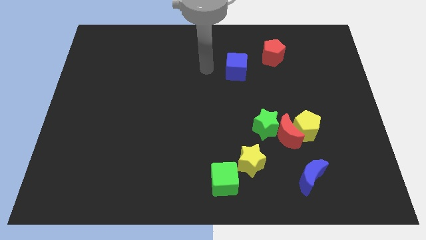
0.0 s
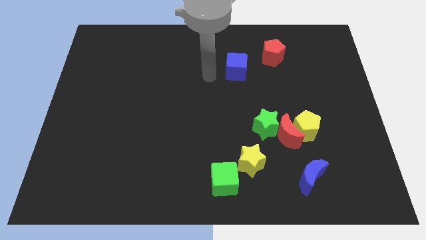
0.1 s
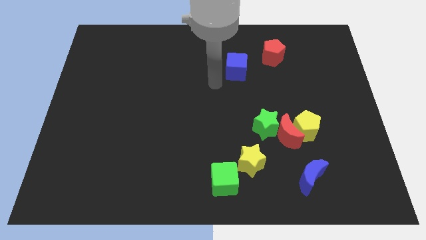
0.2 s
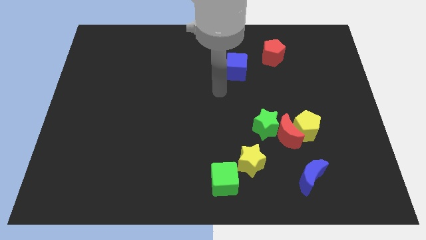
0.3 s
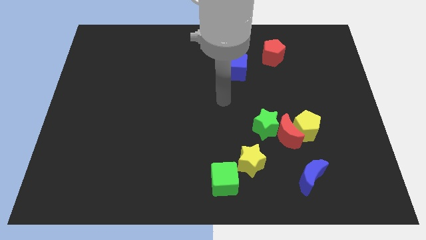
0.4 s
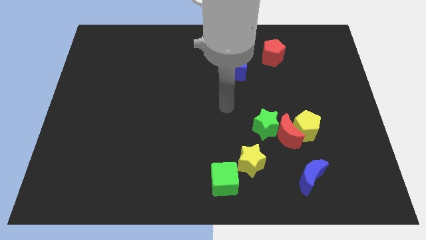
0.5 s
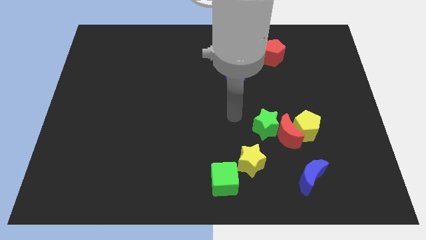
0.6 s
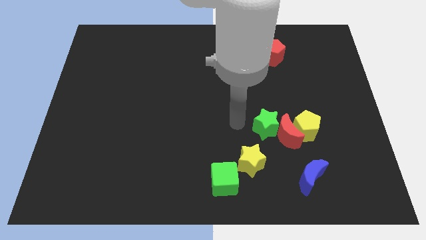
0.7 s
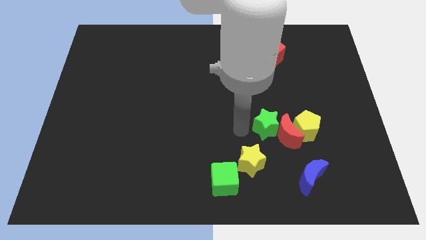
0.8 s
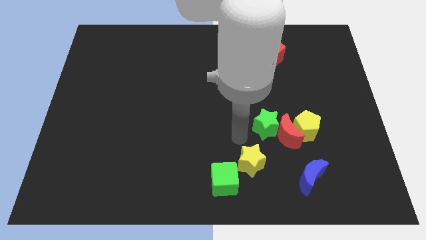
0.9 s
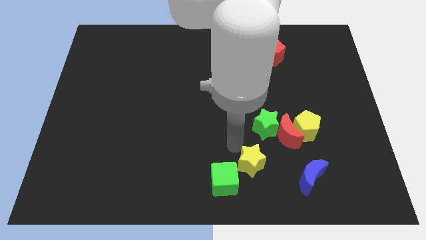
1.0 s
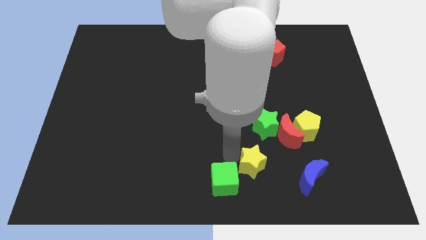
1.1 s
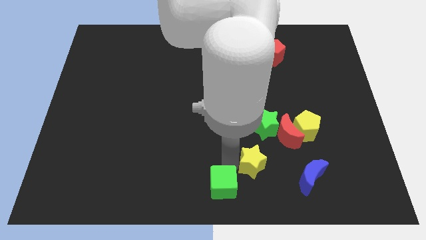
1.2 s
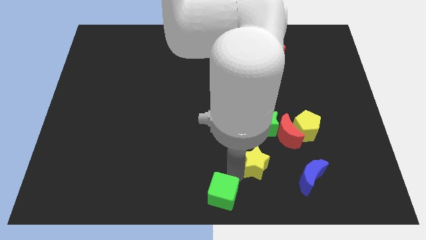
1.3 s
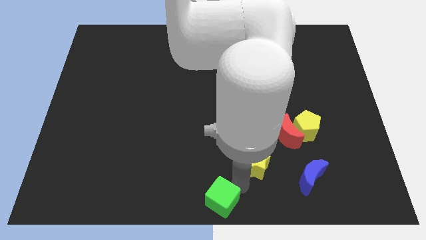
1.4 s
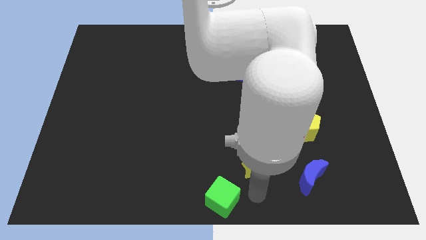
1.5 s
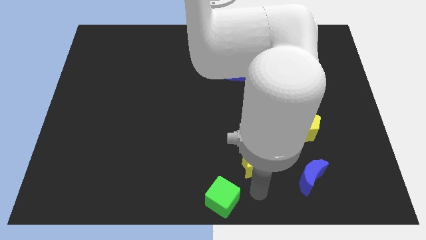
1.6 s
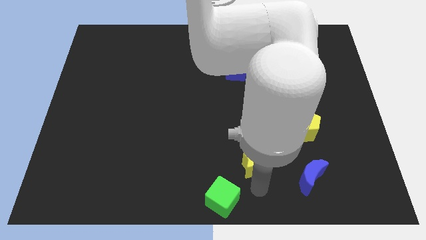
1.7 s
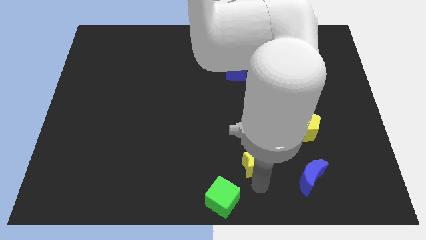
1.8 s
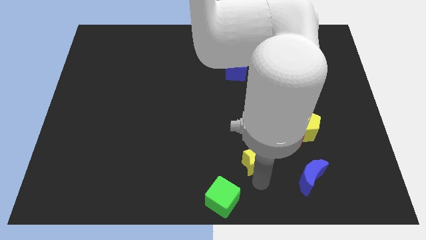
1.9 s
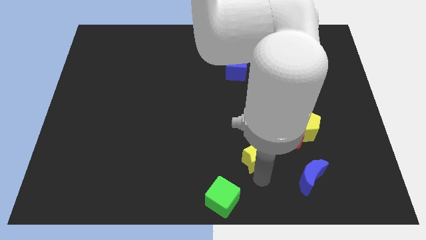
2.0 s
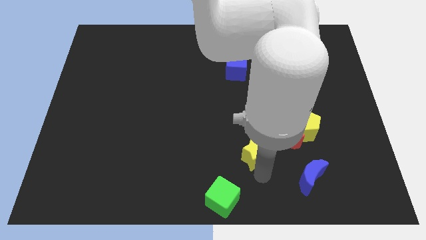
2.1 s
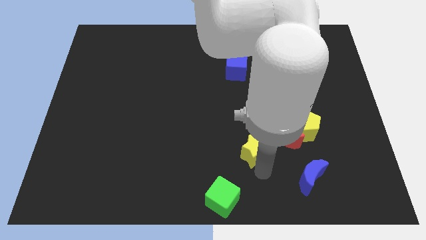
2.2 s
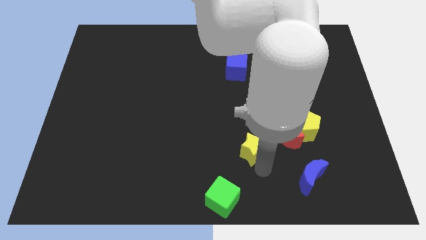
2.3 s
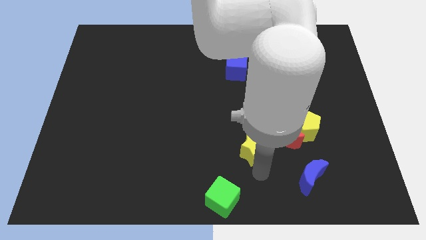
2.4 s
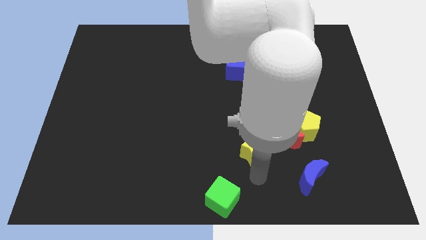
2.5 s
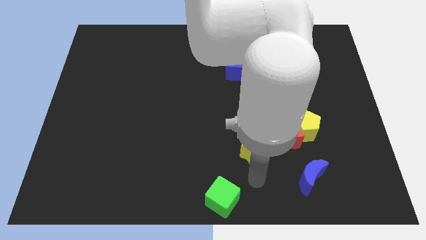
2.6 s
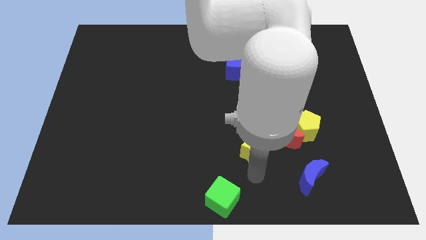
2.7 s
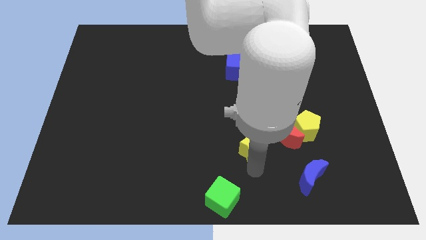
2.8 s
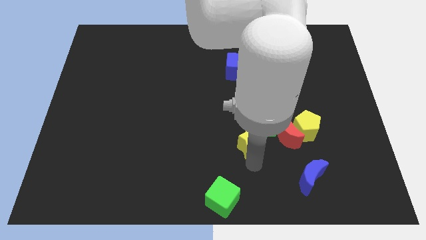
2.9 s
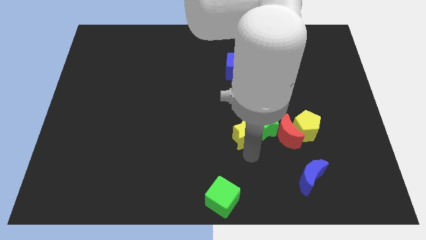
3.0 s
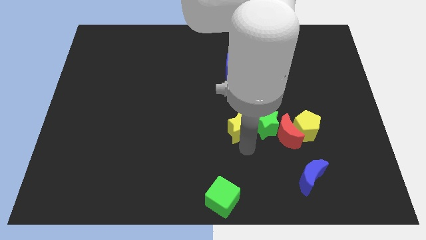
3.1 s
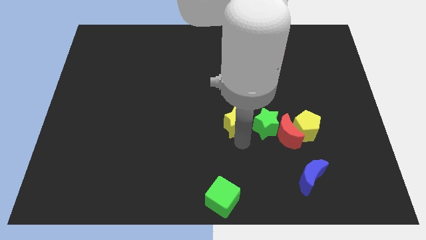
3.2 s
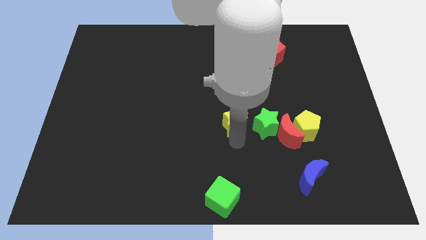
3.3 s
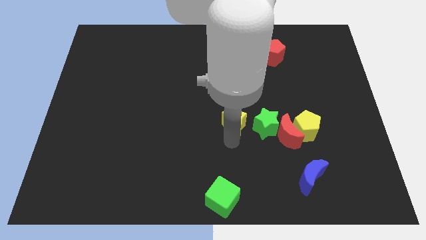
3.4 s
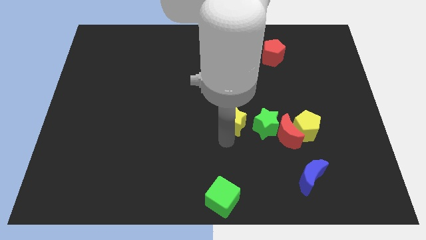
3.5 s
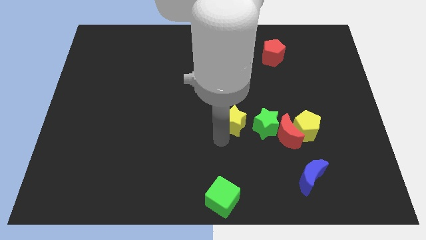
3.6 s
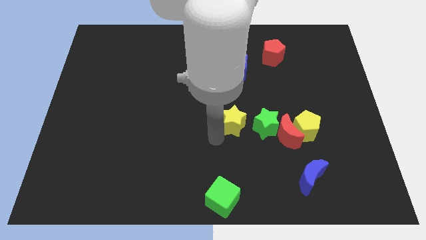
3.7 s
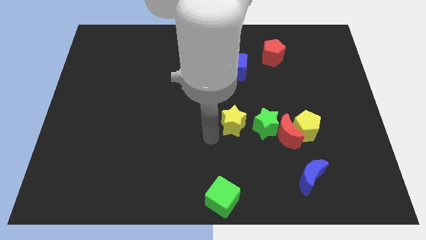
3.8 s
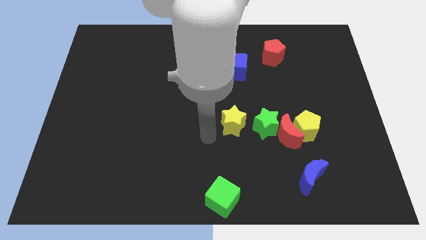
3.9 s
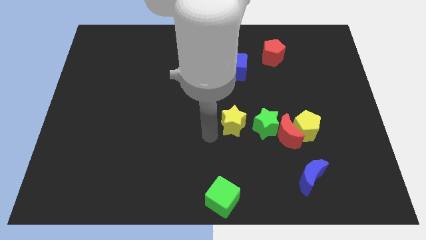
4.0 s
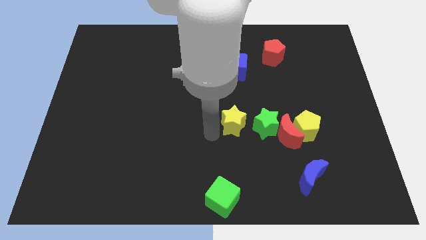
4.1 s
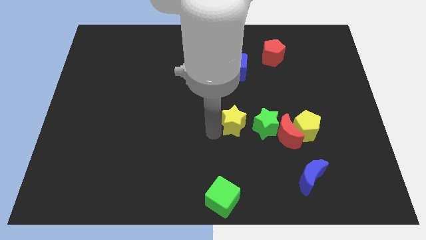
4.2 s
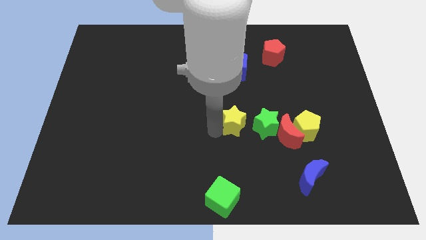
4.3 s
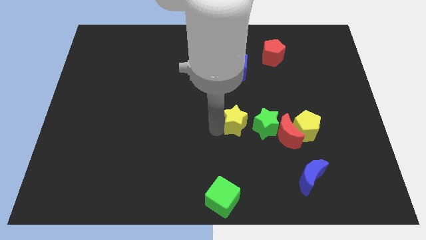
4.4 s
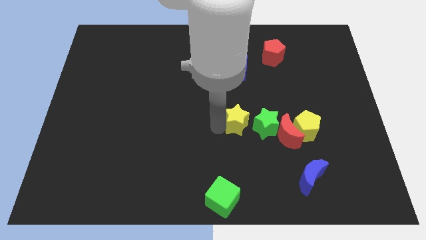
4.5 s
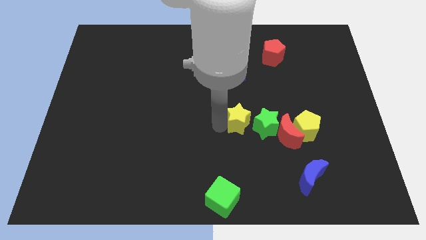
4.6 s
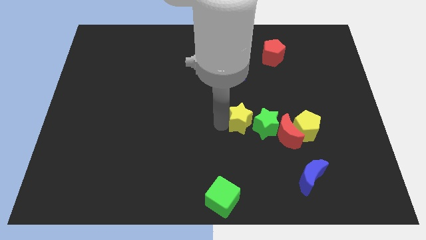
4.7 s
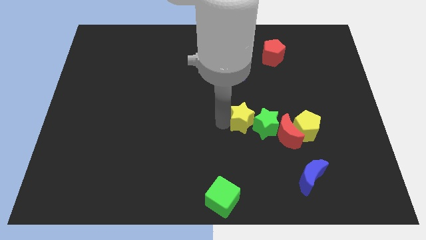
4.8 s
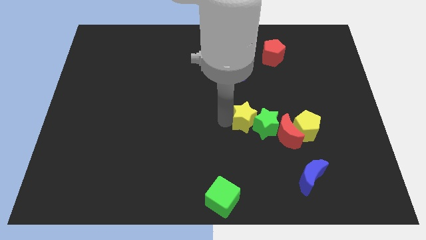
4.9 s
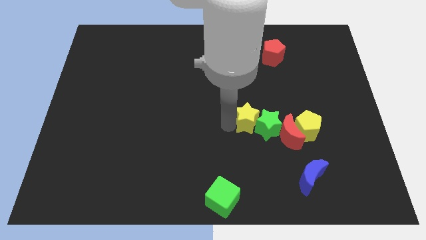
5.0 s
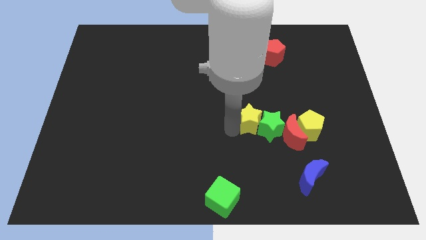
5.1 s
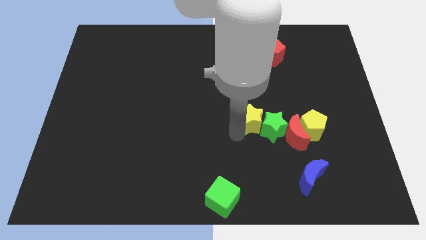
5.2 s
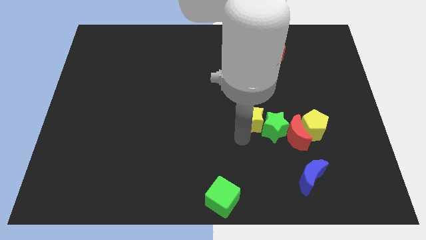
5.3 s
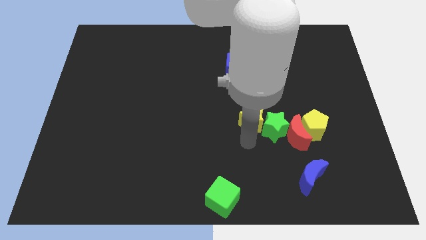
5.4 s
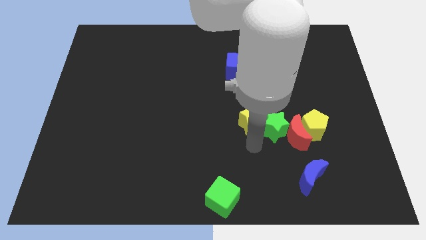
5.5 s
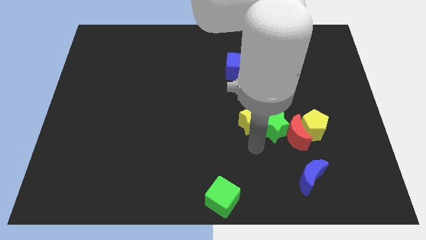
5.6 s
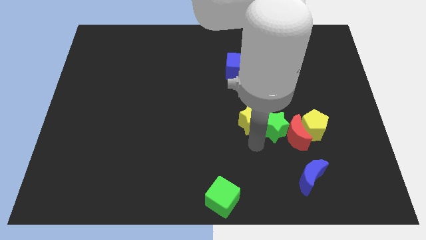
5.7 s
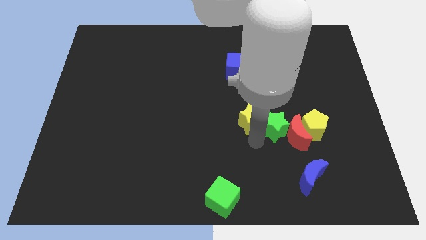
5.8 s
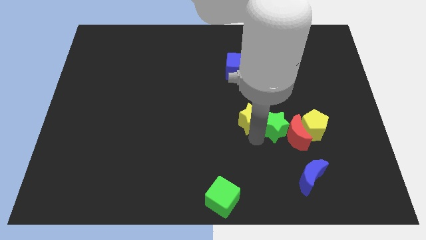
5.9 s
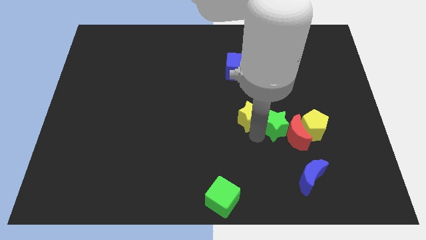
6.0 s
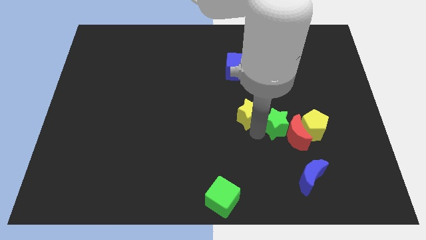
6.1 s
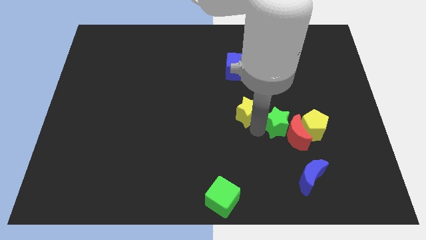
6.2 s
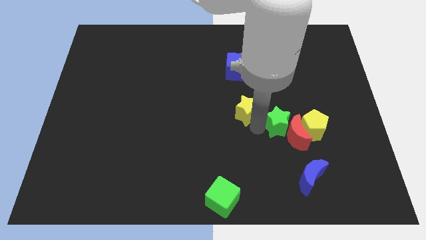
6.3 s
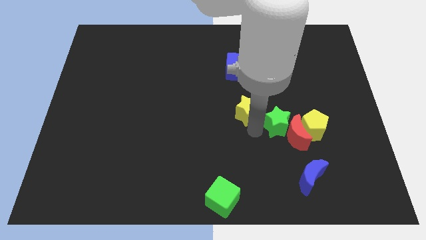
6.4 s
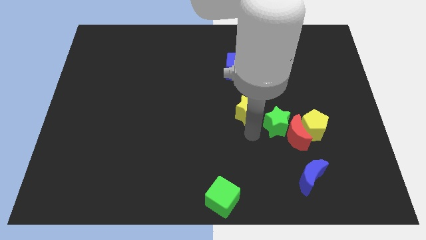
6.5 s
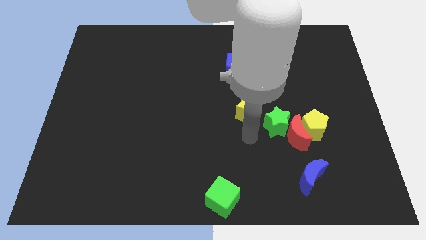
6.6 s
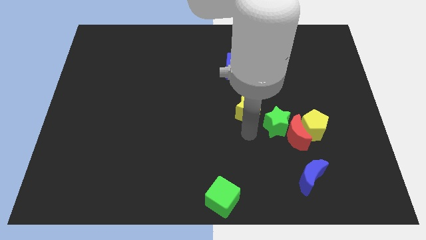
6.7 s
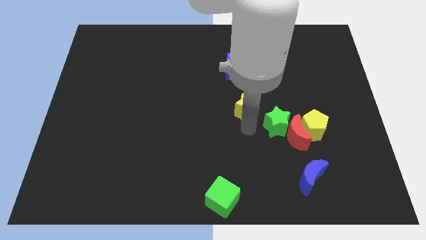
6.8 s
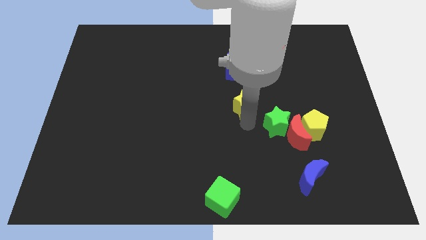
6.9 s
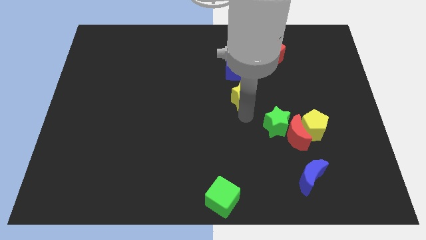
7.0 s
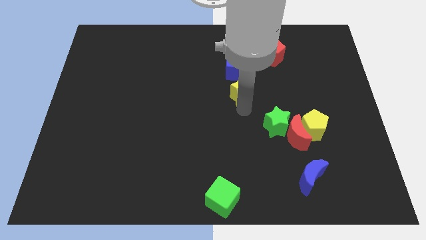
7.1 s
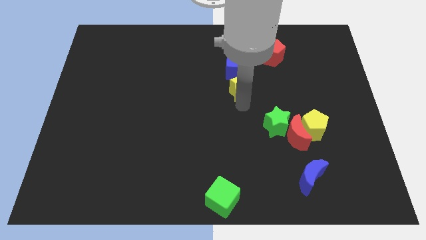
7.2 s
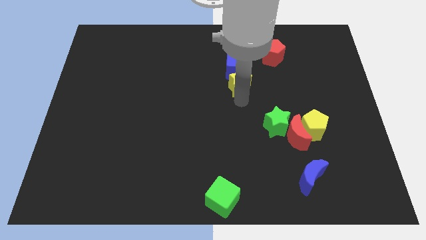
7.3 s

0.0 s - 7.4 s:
slide the yellow star to the blue cube
